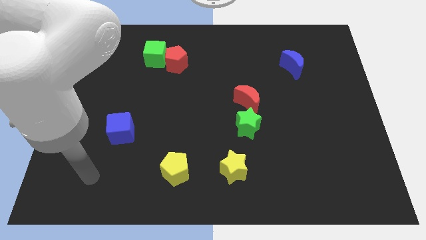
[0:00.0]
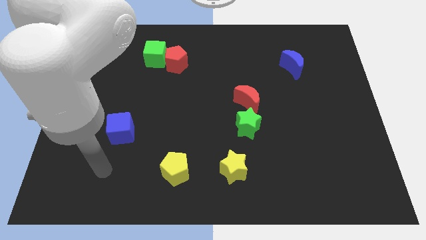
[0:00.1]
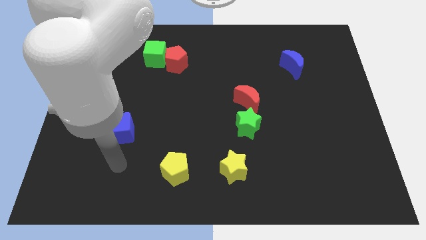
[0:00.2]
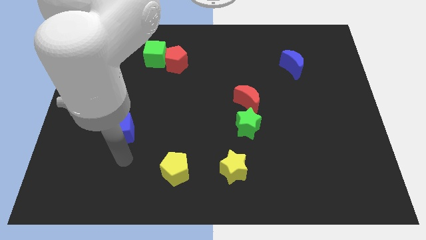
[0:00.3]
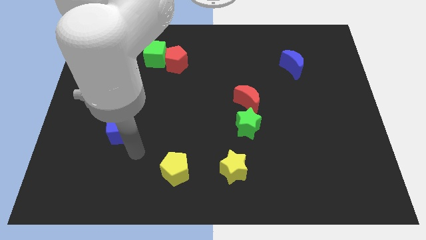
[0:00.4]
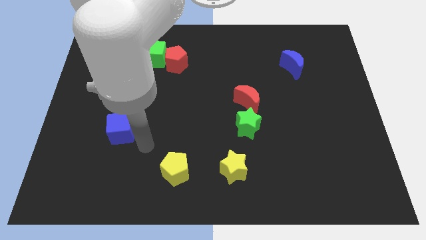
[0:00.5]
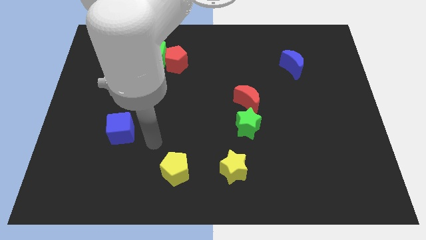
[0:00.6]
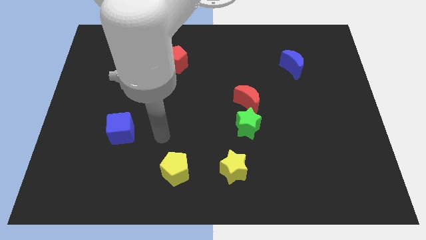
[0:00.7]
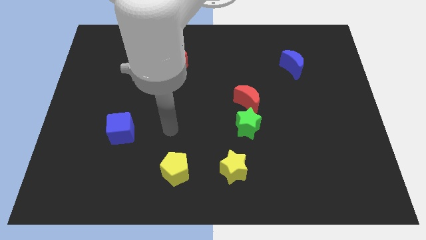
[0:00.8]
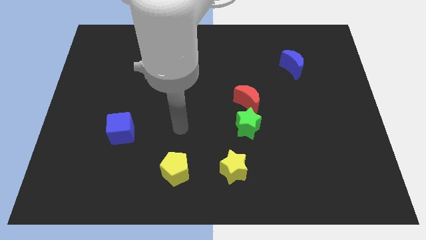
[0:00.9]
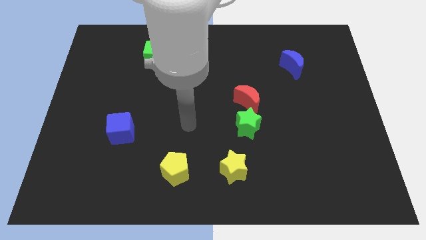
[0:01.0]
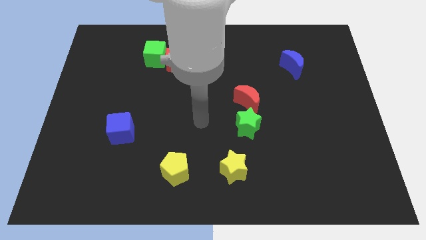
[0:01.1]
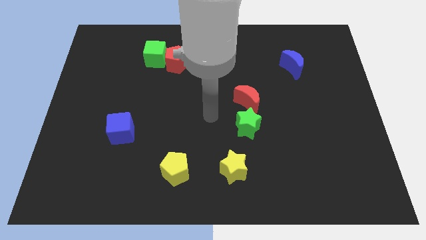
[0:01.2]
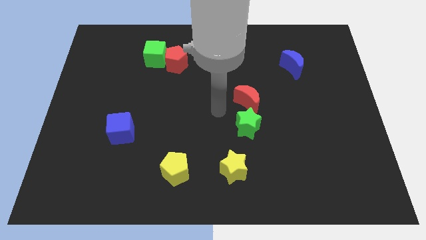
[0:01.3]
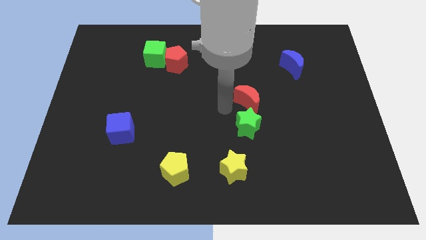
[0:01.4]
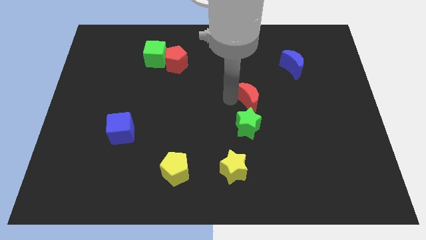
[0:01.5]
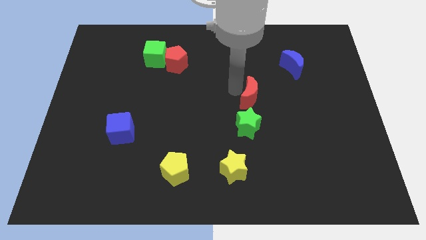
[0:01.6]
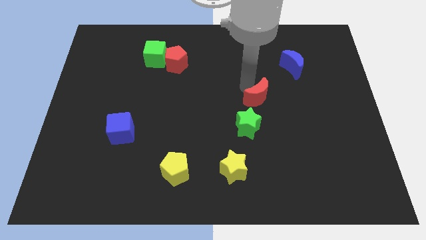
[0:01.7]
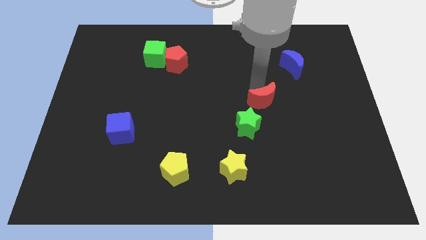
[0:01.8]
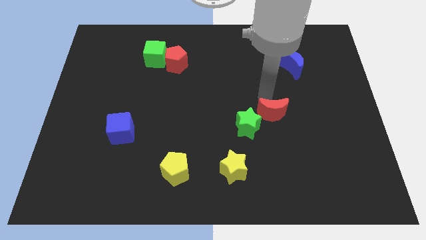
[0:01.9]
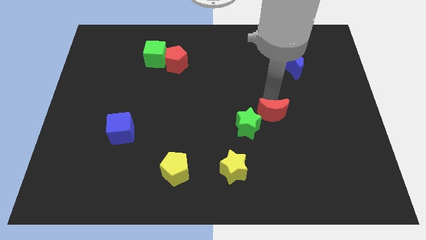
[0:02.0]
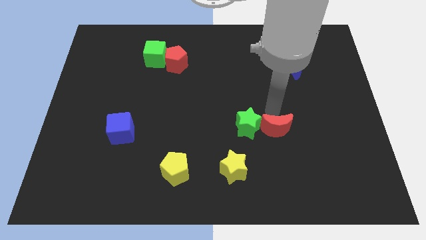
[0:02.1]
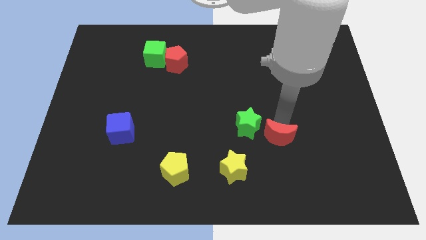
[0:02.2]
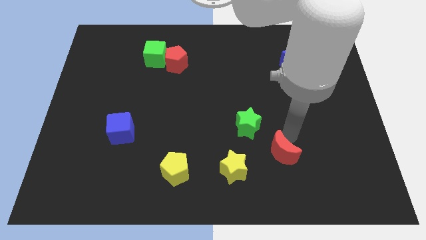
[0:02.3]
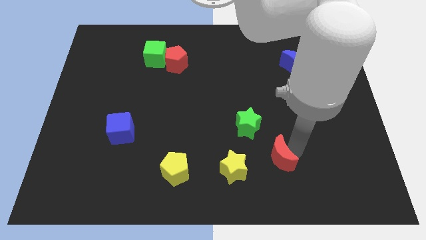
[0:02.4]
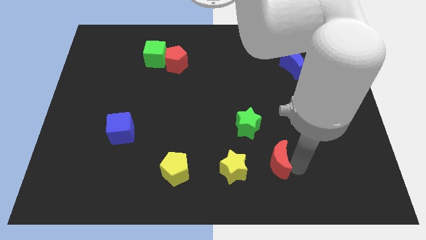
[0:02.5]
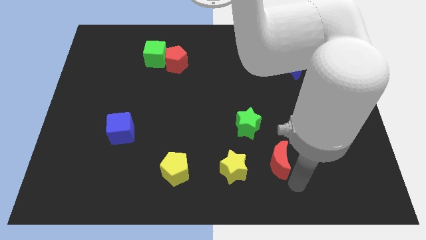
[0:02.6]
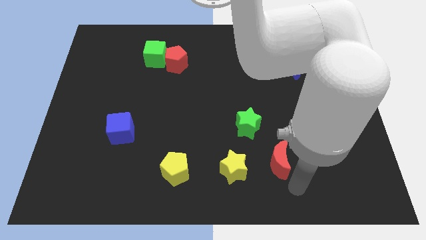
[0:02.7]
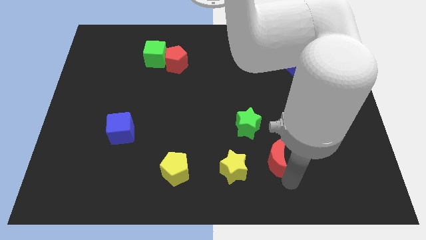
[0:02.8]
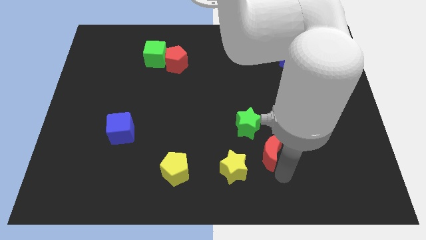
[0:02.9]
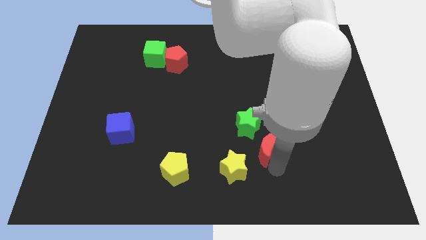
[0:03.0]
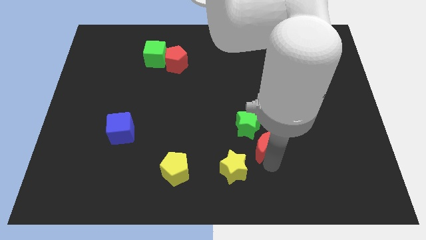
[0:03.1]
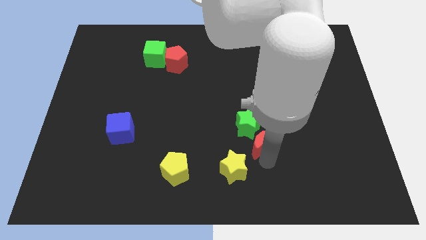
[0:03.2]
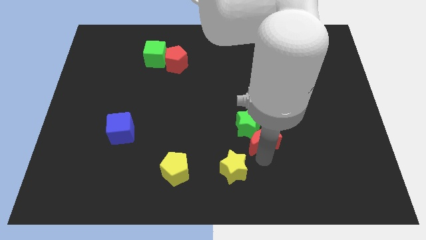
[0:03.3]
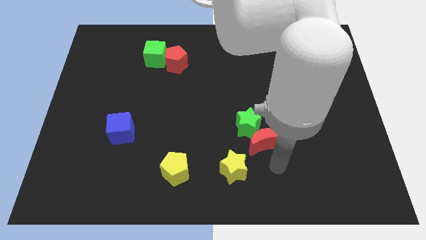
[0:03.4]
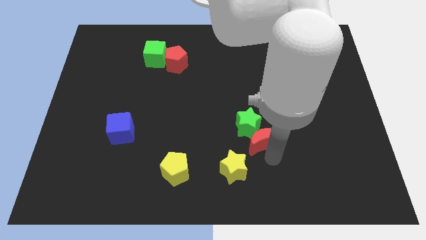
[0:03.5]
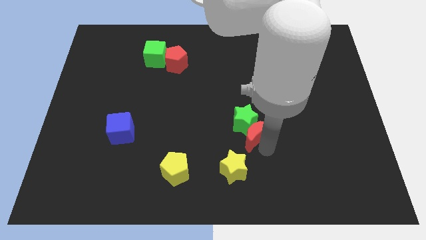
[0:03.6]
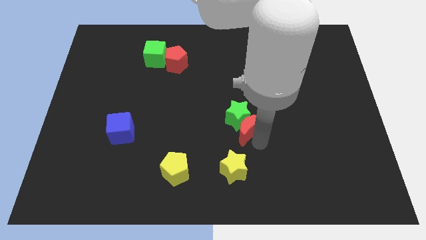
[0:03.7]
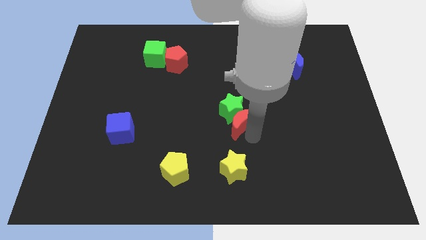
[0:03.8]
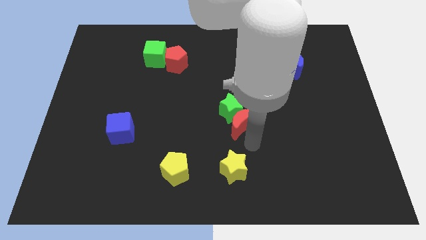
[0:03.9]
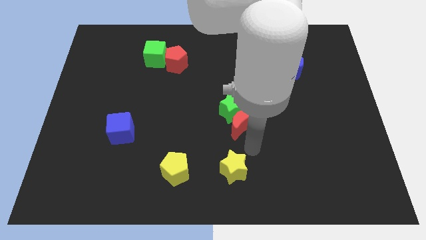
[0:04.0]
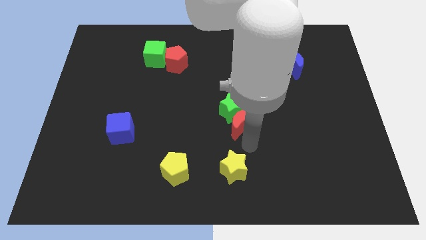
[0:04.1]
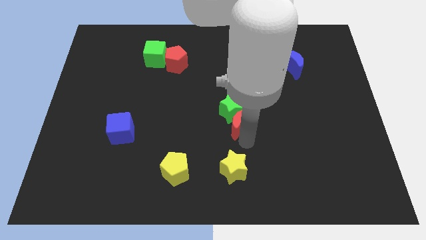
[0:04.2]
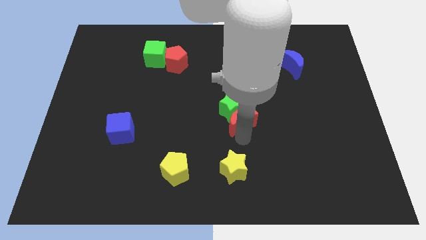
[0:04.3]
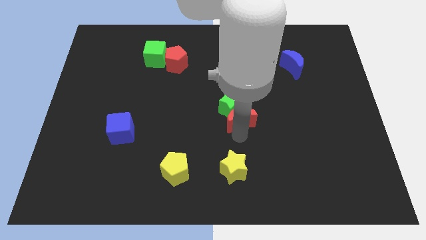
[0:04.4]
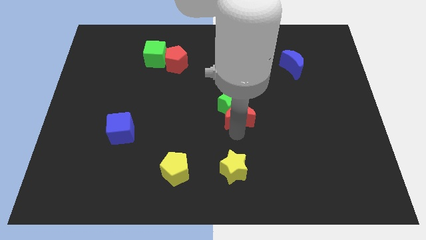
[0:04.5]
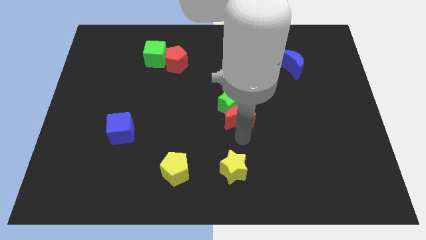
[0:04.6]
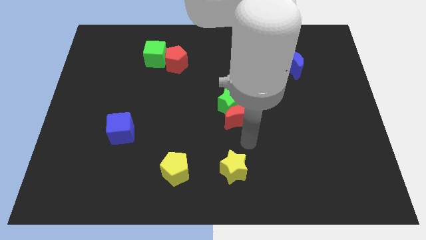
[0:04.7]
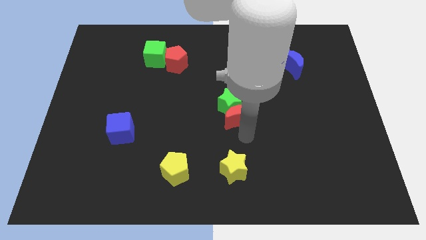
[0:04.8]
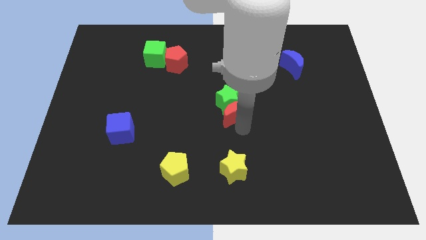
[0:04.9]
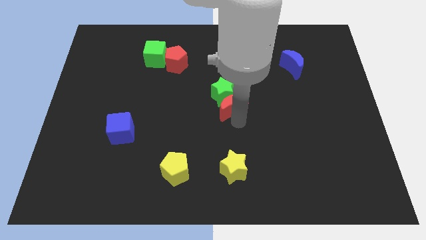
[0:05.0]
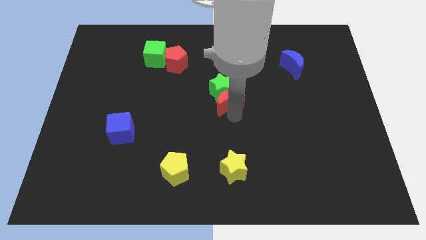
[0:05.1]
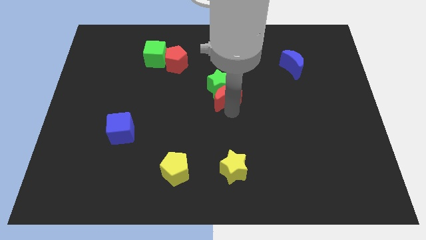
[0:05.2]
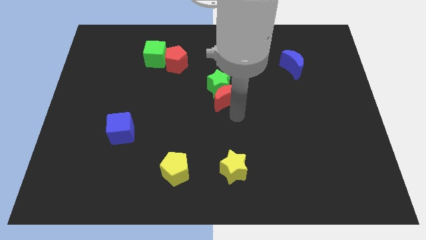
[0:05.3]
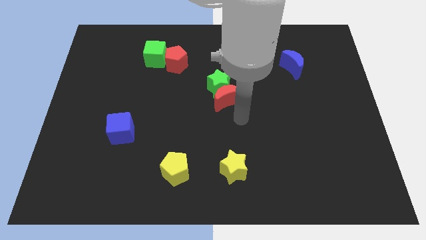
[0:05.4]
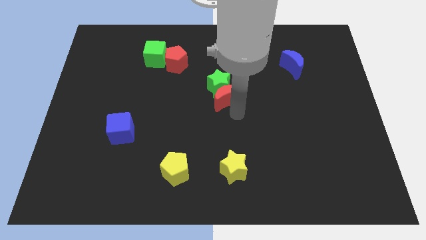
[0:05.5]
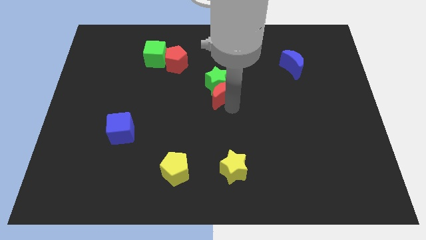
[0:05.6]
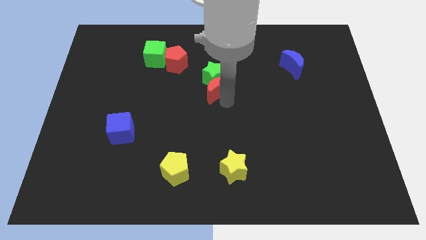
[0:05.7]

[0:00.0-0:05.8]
push the red moon upwards and to the left diagonally a little

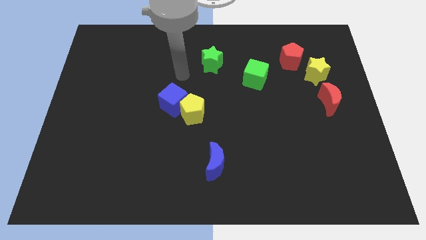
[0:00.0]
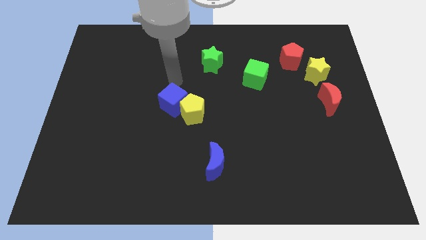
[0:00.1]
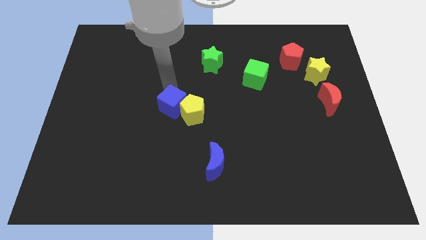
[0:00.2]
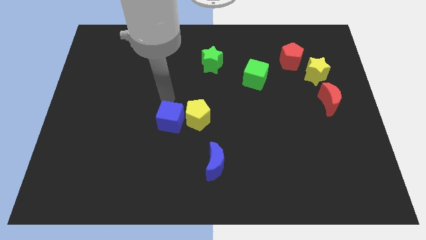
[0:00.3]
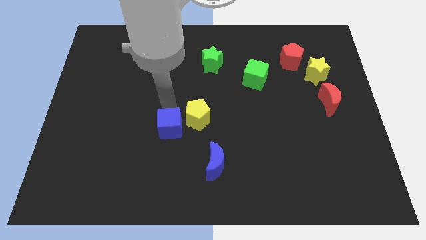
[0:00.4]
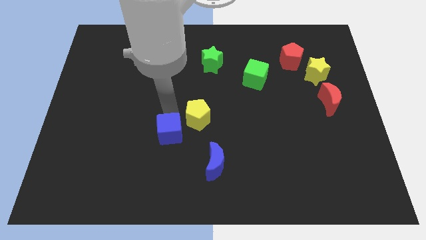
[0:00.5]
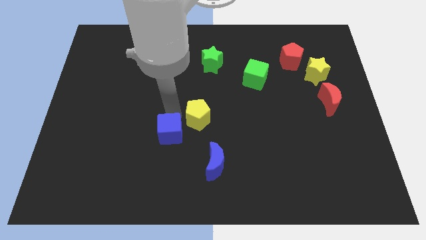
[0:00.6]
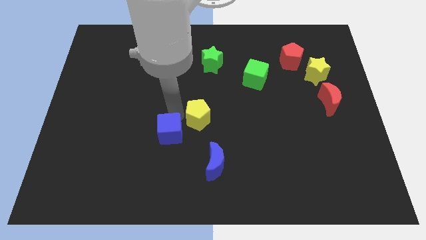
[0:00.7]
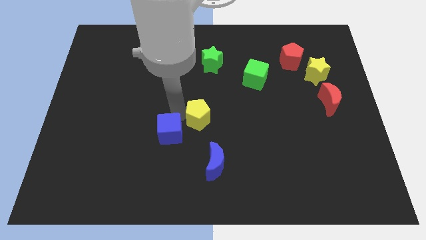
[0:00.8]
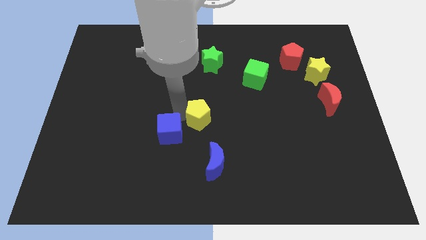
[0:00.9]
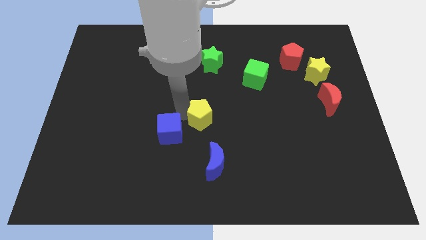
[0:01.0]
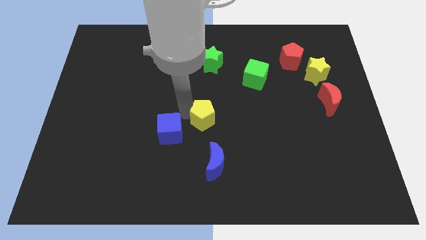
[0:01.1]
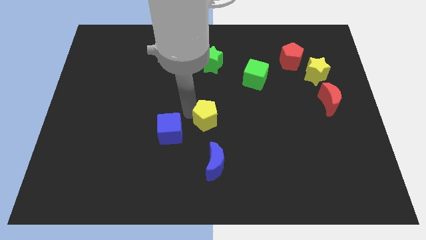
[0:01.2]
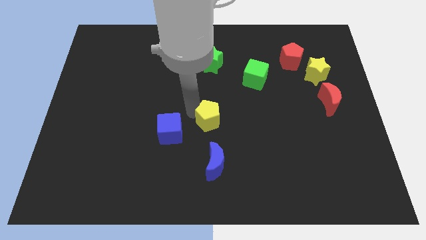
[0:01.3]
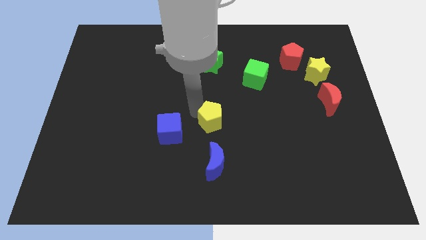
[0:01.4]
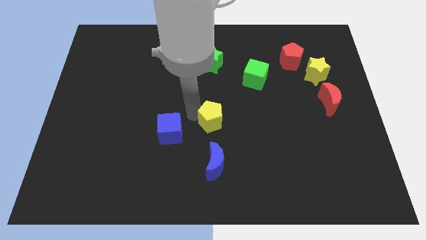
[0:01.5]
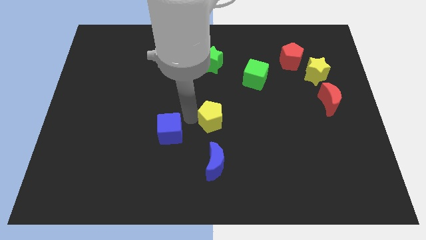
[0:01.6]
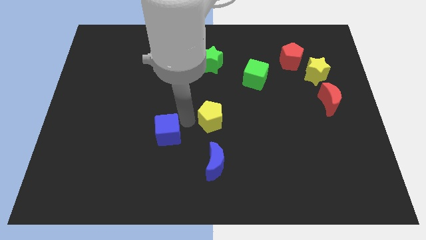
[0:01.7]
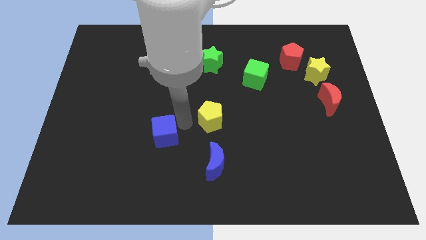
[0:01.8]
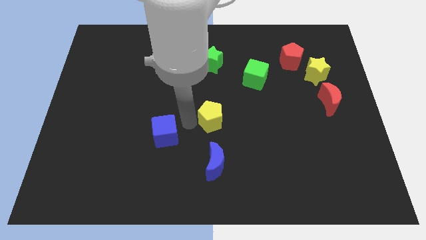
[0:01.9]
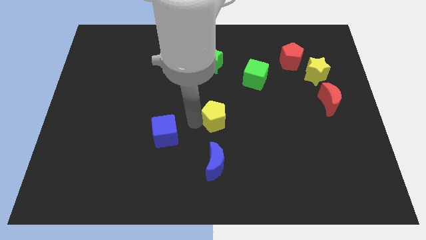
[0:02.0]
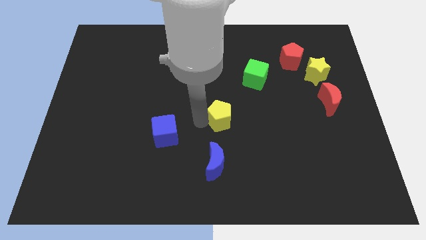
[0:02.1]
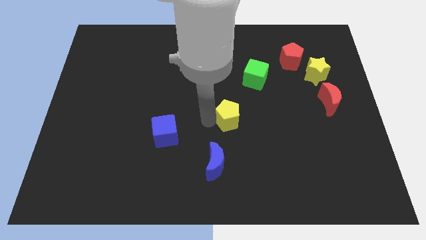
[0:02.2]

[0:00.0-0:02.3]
push the yellow pentagon to the right a little bit

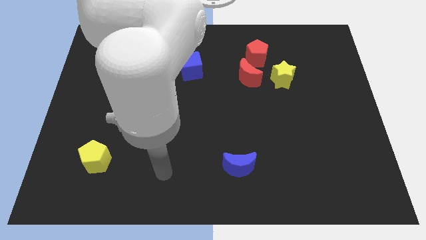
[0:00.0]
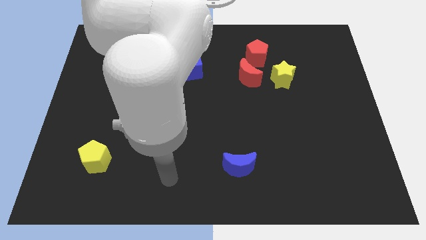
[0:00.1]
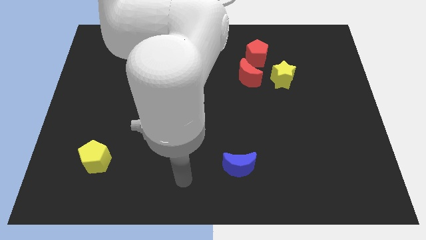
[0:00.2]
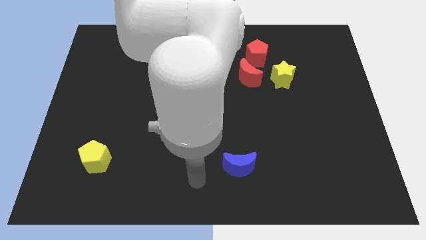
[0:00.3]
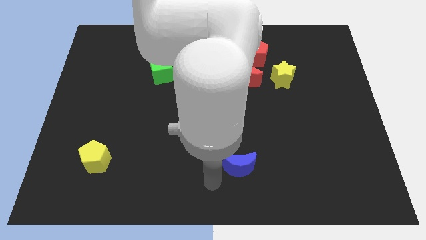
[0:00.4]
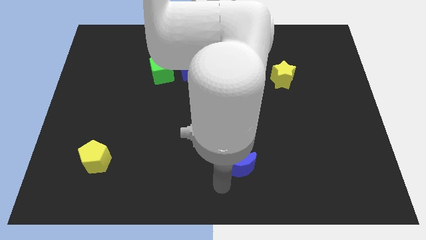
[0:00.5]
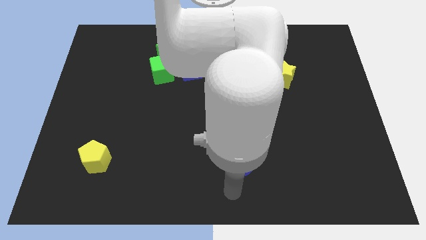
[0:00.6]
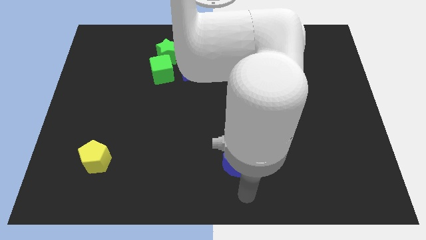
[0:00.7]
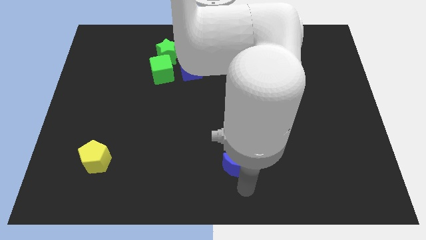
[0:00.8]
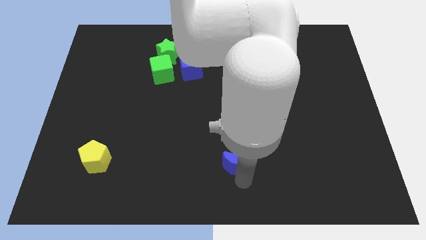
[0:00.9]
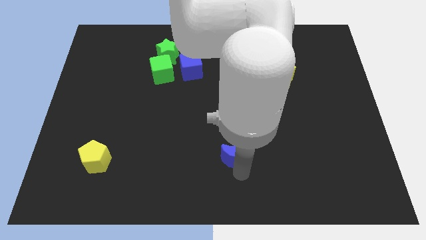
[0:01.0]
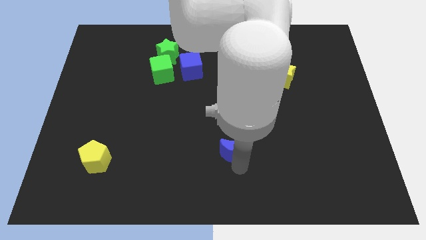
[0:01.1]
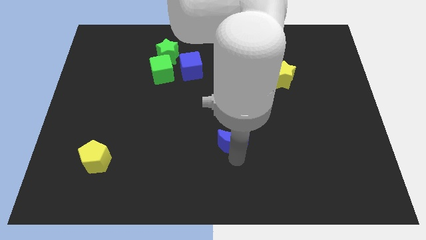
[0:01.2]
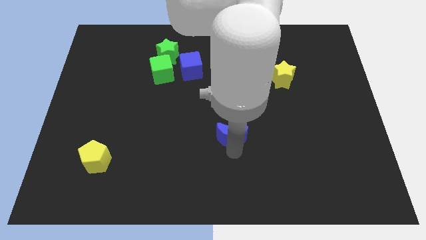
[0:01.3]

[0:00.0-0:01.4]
move the blue moon slightly upwards
